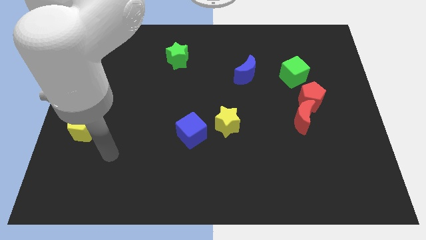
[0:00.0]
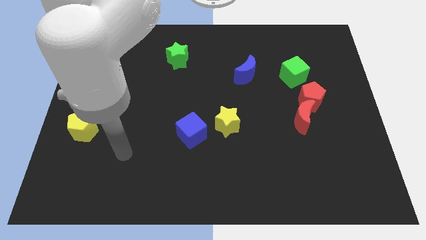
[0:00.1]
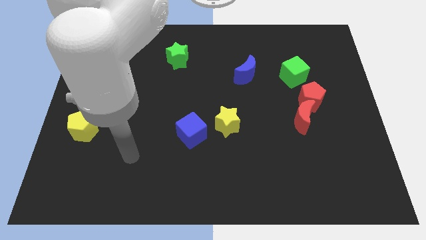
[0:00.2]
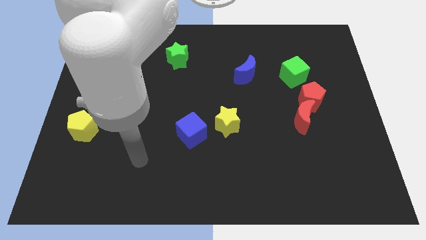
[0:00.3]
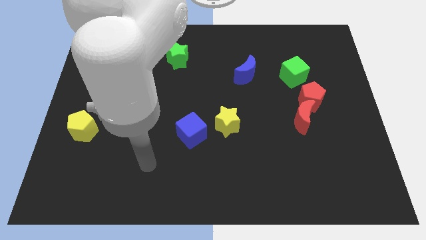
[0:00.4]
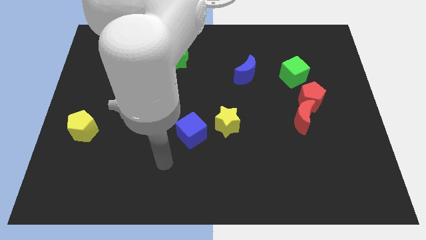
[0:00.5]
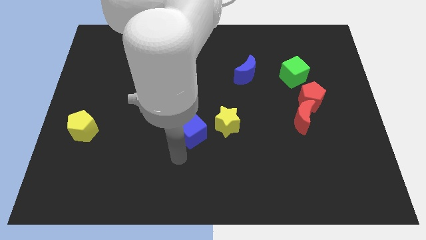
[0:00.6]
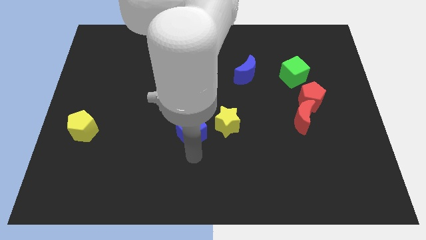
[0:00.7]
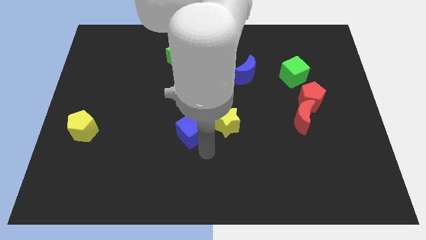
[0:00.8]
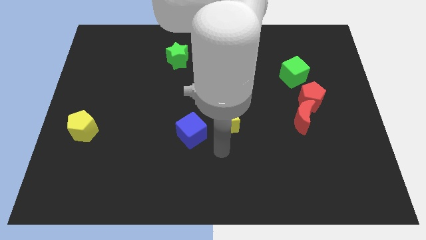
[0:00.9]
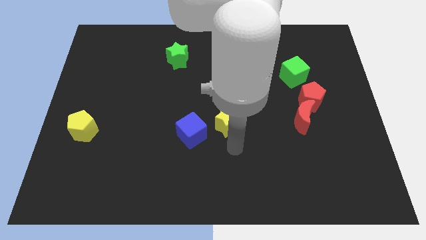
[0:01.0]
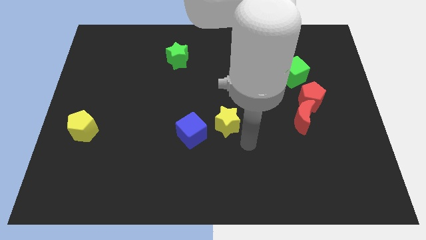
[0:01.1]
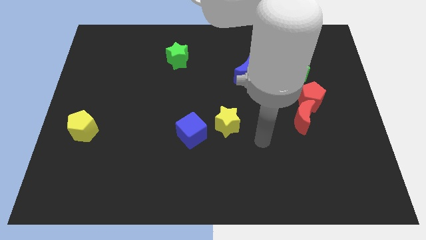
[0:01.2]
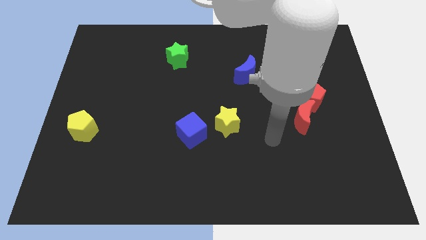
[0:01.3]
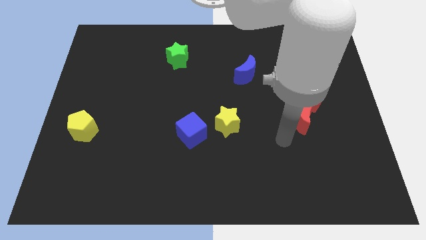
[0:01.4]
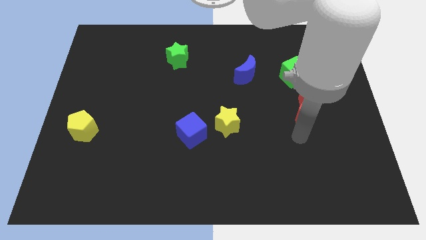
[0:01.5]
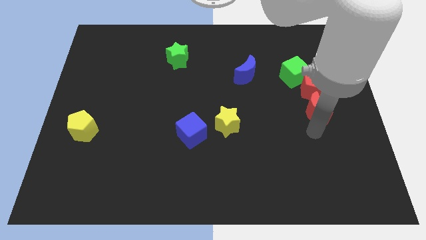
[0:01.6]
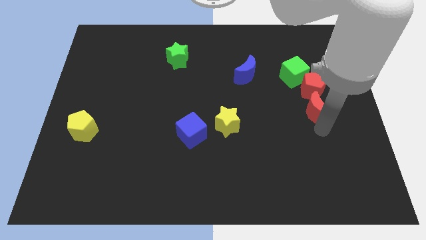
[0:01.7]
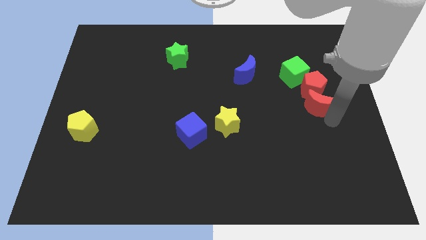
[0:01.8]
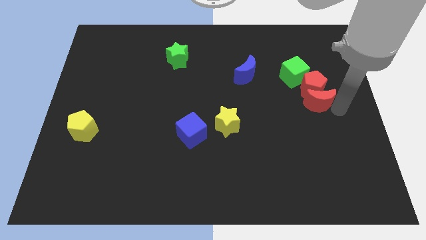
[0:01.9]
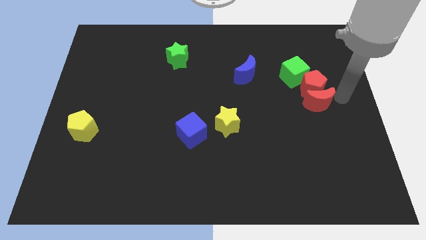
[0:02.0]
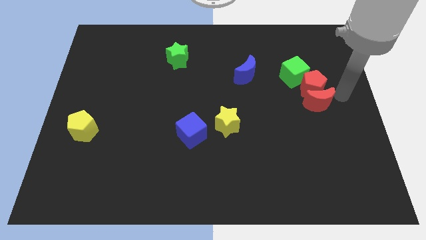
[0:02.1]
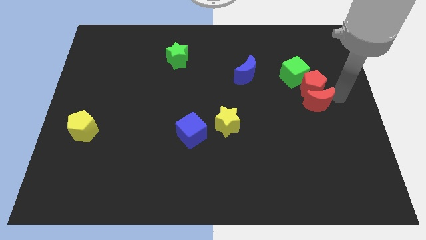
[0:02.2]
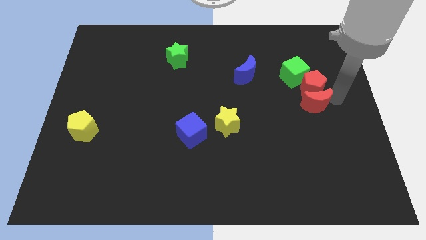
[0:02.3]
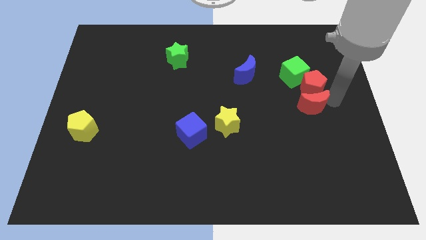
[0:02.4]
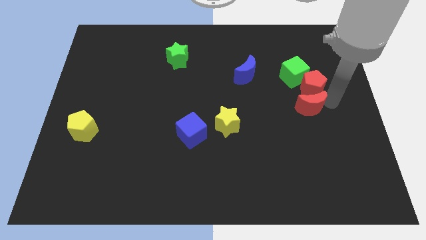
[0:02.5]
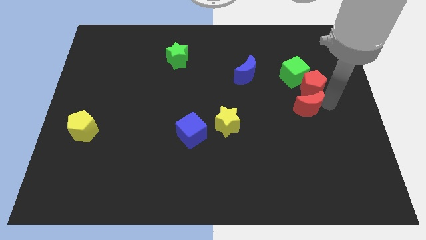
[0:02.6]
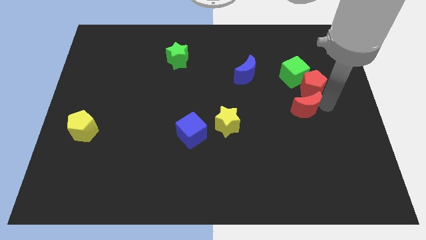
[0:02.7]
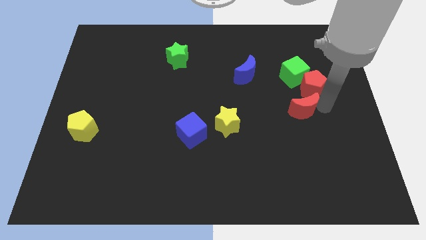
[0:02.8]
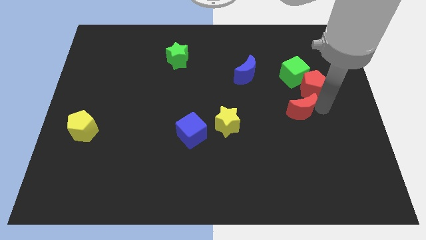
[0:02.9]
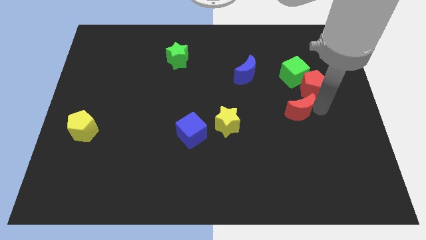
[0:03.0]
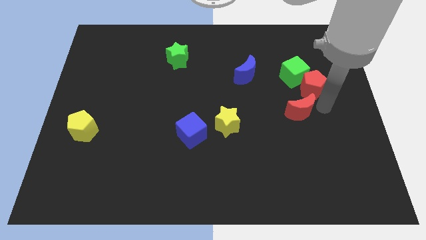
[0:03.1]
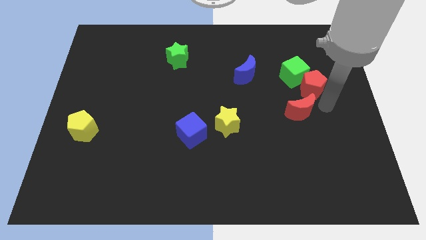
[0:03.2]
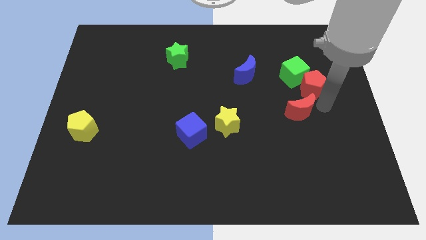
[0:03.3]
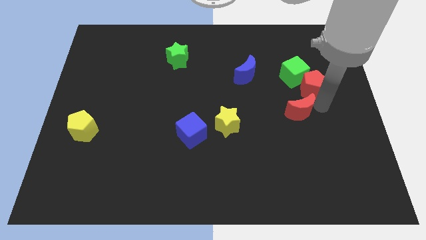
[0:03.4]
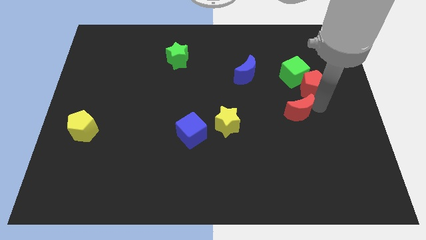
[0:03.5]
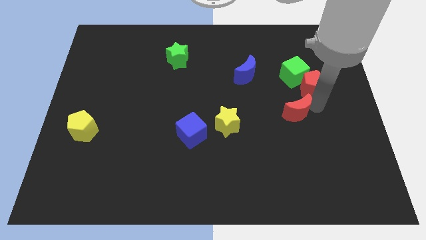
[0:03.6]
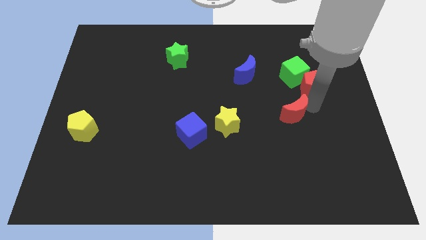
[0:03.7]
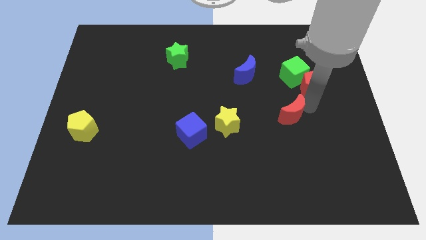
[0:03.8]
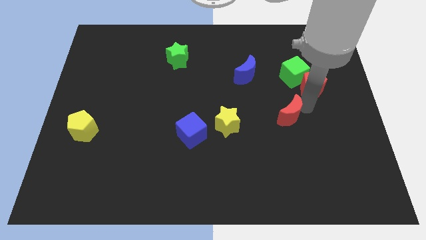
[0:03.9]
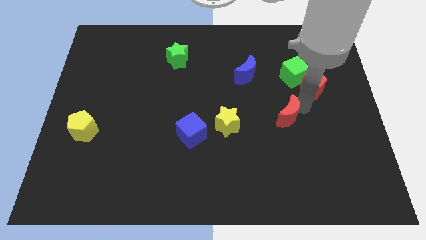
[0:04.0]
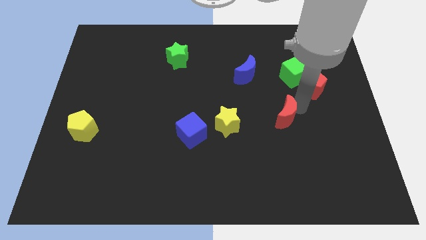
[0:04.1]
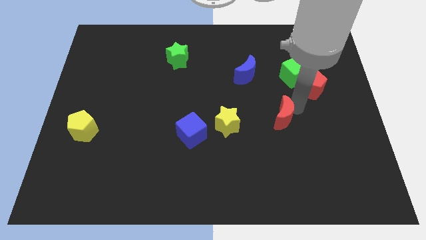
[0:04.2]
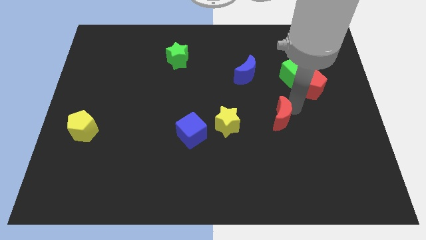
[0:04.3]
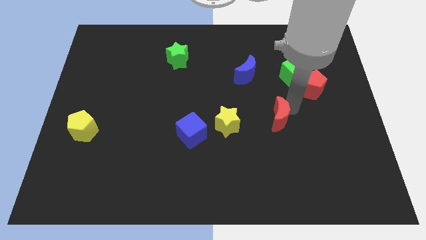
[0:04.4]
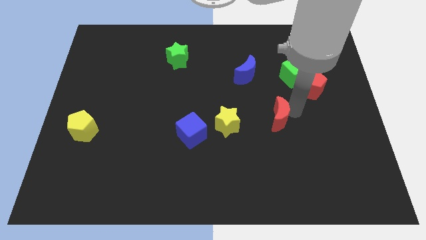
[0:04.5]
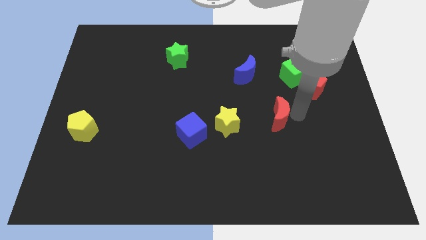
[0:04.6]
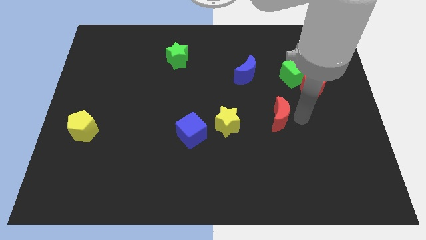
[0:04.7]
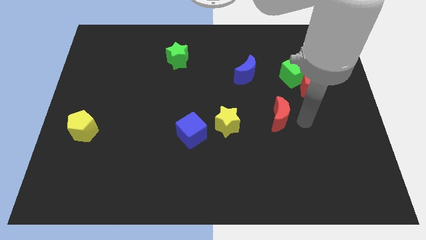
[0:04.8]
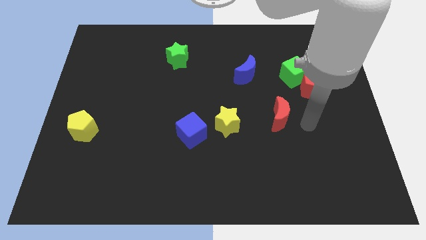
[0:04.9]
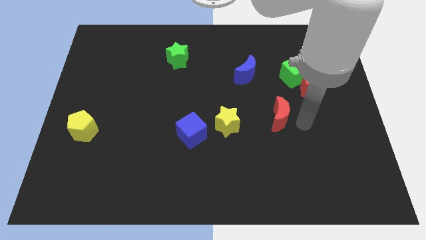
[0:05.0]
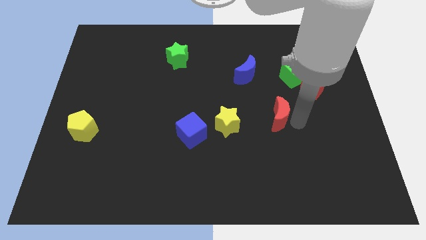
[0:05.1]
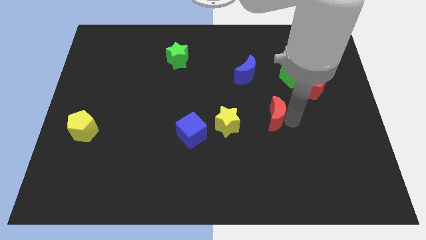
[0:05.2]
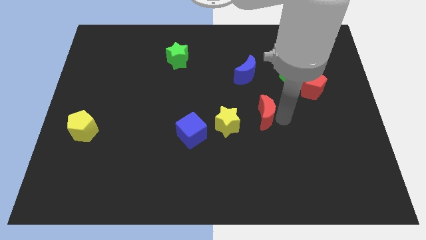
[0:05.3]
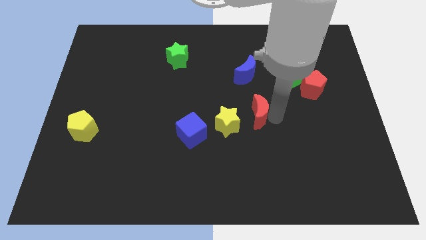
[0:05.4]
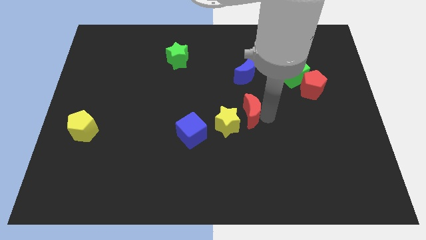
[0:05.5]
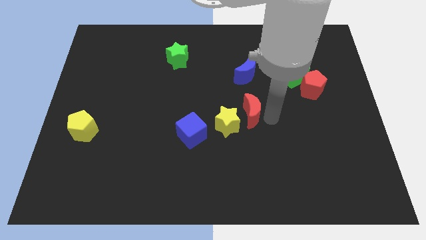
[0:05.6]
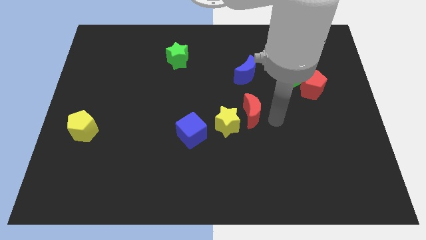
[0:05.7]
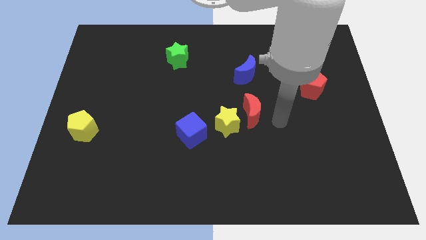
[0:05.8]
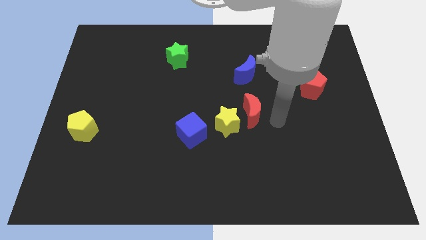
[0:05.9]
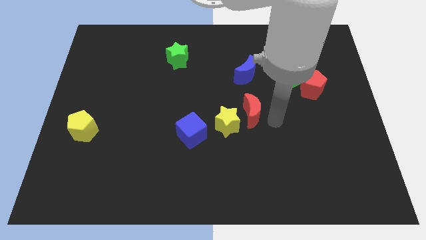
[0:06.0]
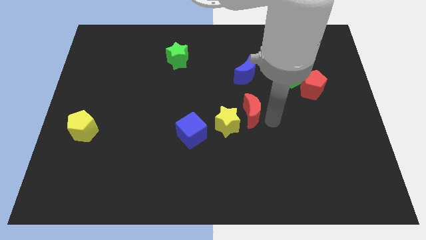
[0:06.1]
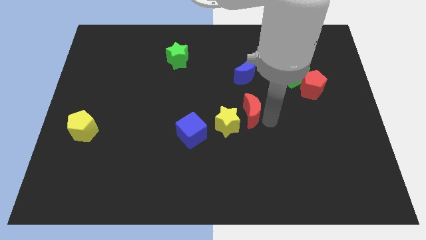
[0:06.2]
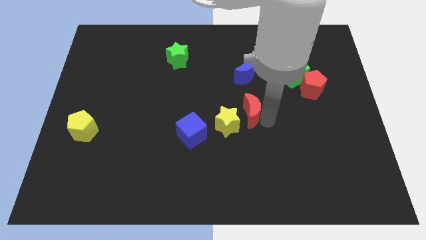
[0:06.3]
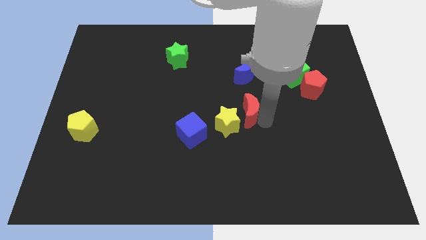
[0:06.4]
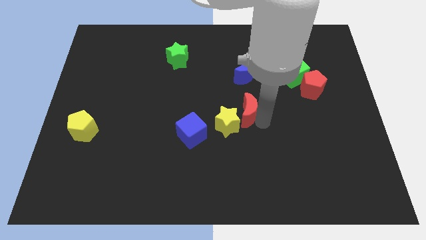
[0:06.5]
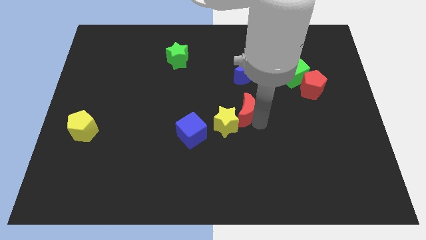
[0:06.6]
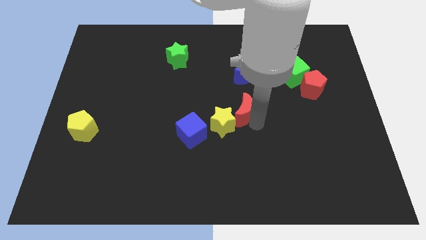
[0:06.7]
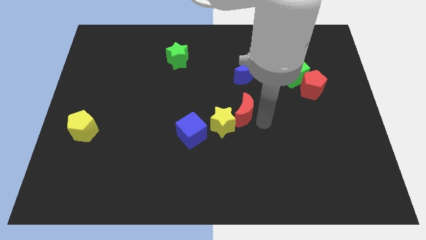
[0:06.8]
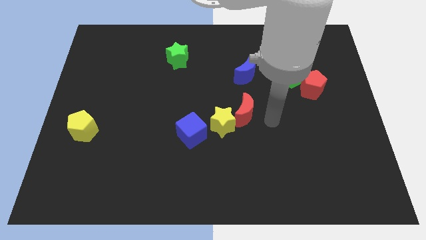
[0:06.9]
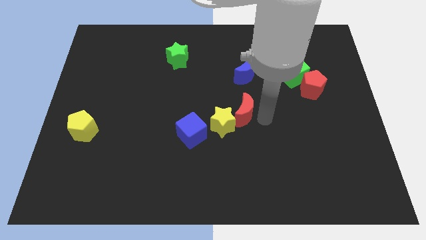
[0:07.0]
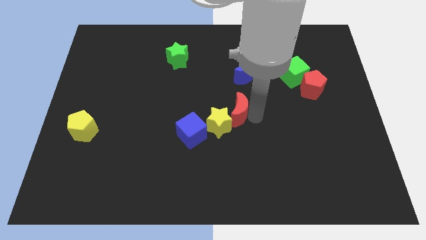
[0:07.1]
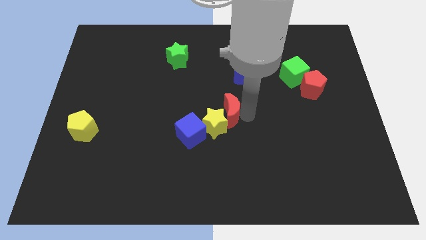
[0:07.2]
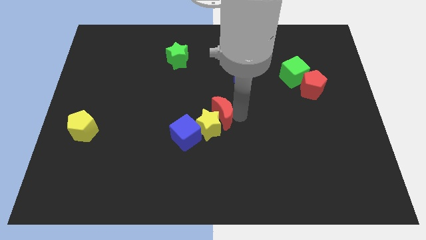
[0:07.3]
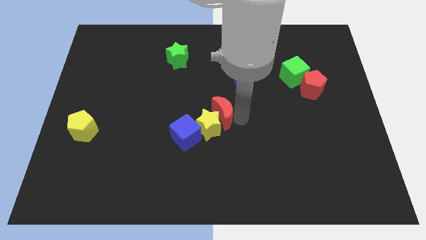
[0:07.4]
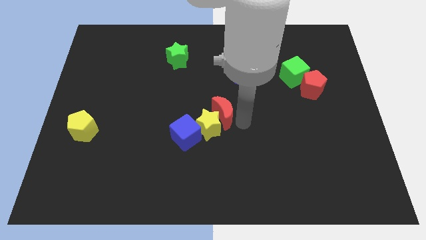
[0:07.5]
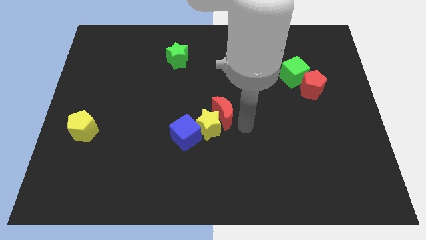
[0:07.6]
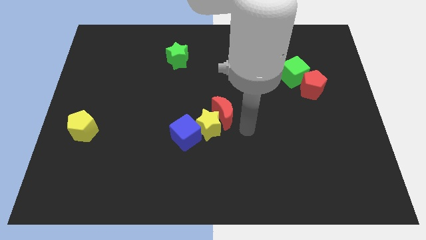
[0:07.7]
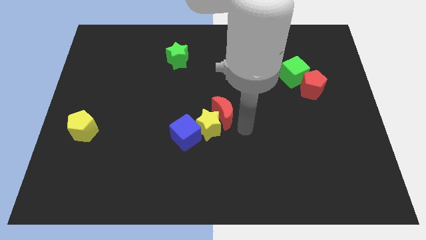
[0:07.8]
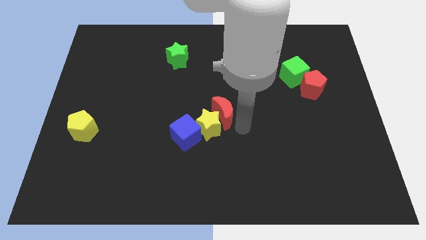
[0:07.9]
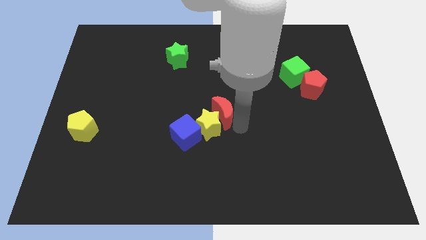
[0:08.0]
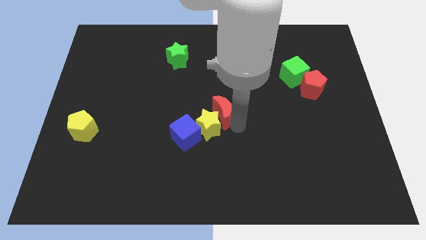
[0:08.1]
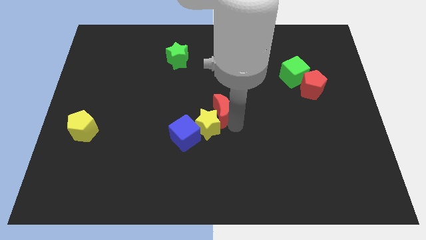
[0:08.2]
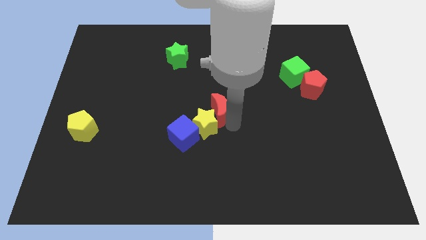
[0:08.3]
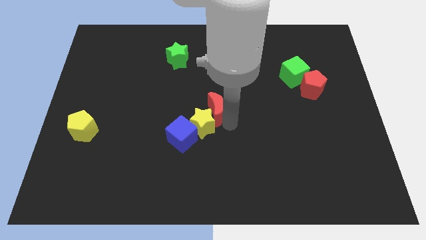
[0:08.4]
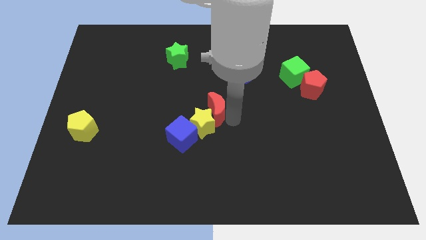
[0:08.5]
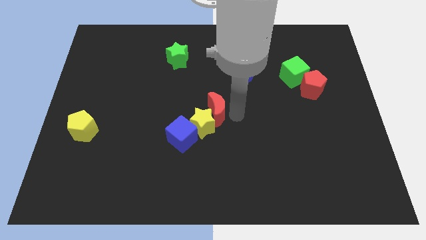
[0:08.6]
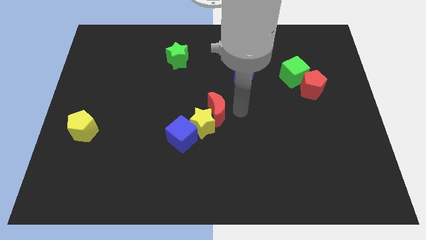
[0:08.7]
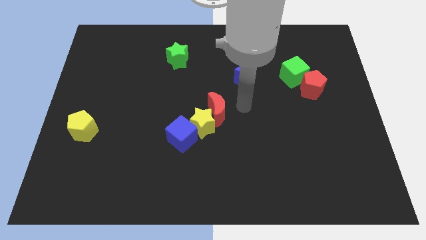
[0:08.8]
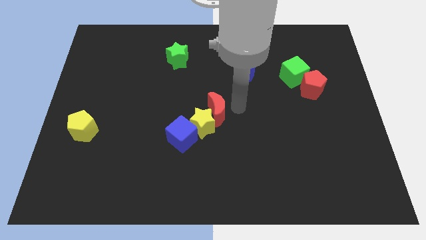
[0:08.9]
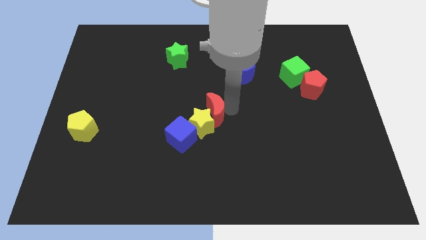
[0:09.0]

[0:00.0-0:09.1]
push the red moon left
